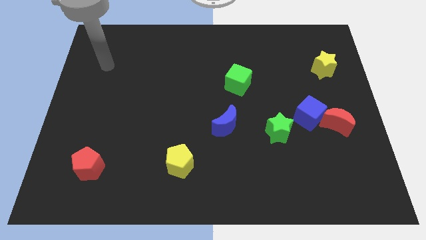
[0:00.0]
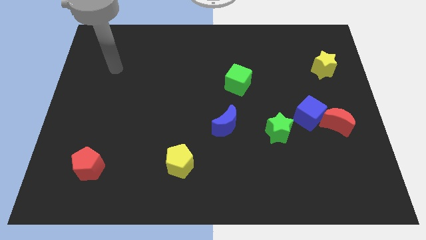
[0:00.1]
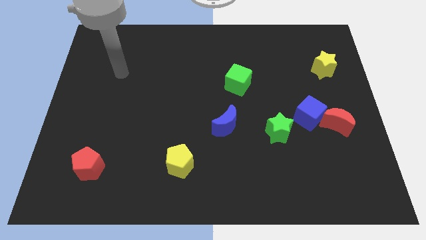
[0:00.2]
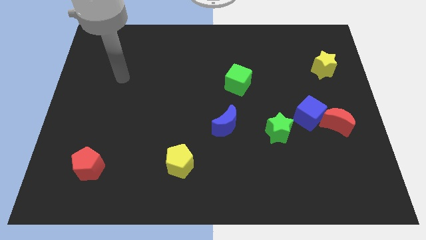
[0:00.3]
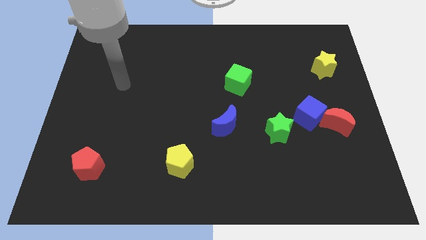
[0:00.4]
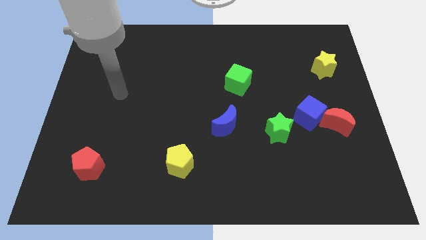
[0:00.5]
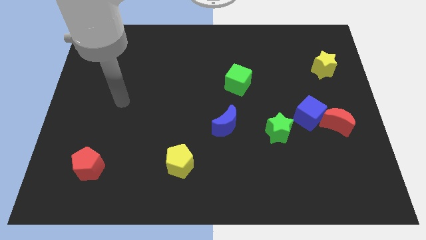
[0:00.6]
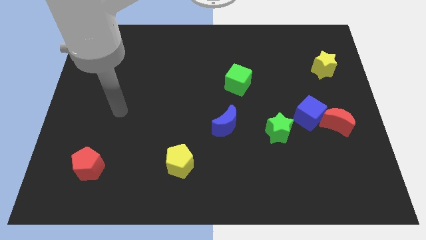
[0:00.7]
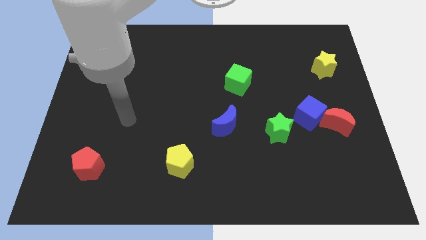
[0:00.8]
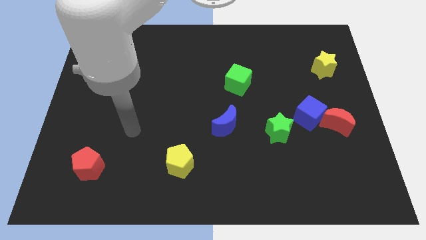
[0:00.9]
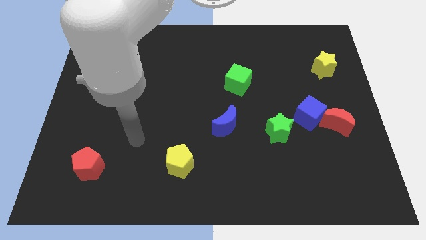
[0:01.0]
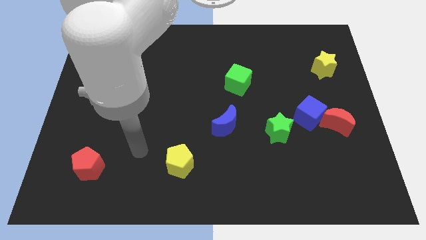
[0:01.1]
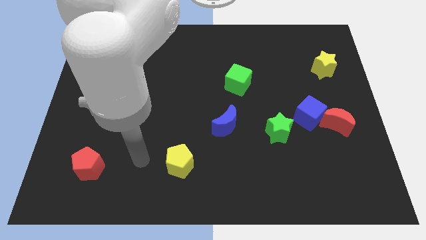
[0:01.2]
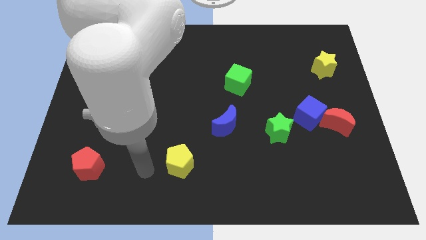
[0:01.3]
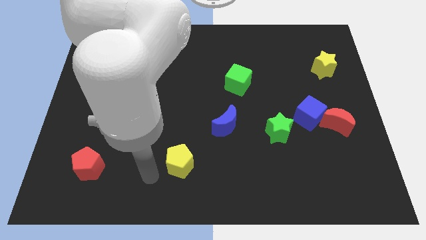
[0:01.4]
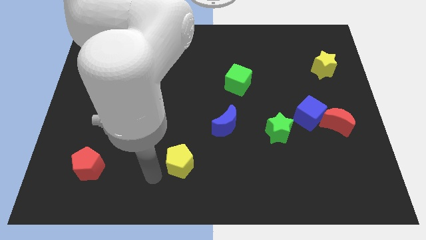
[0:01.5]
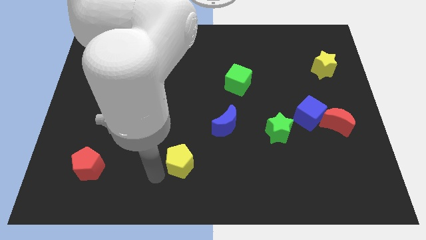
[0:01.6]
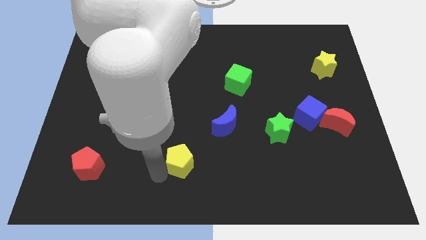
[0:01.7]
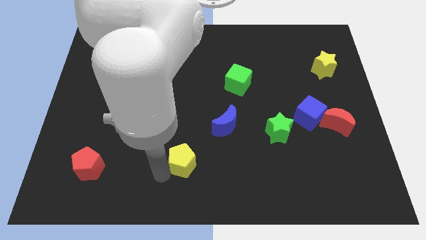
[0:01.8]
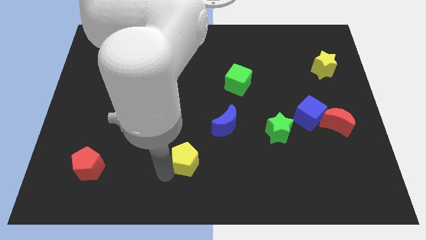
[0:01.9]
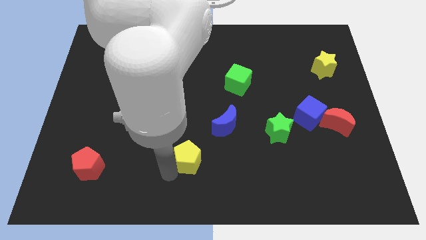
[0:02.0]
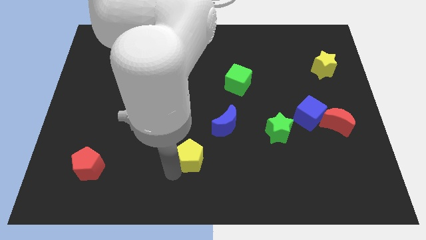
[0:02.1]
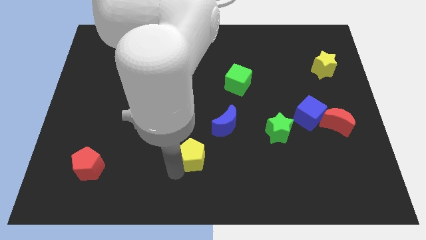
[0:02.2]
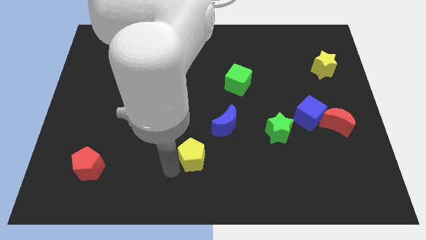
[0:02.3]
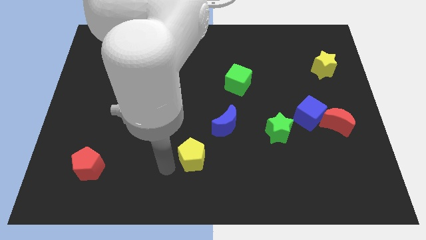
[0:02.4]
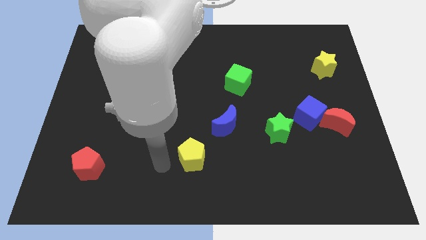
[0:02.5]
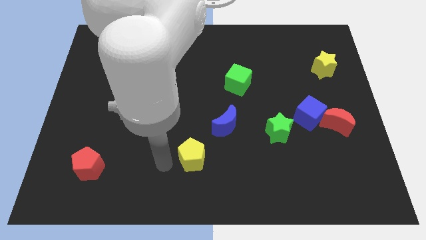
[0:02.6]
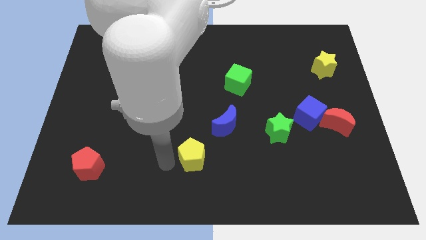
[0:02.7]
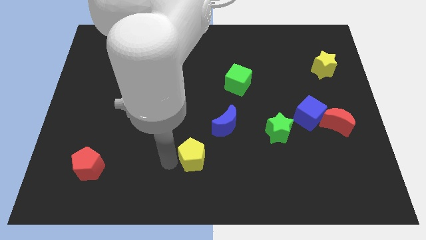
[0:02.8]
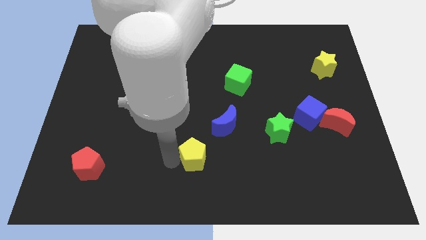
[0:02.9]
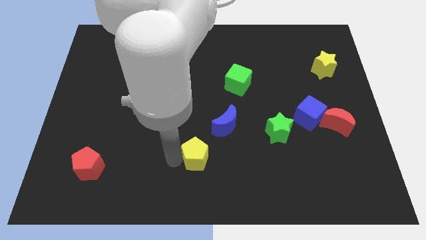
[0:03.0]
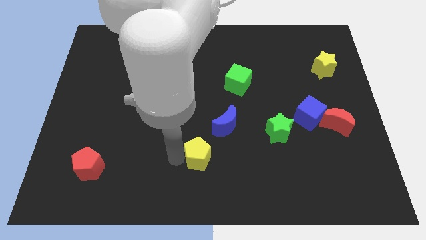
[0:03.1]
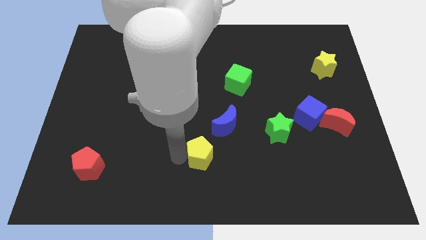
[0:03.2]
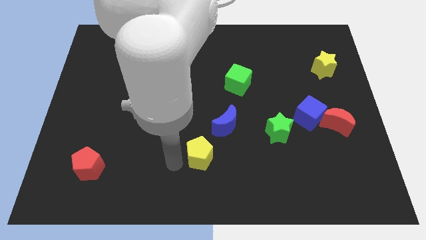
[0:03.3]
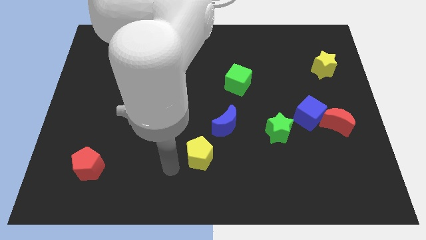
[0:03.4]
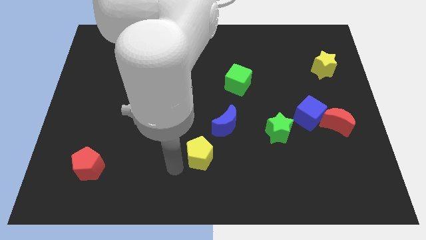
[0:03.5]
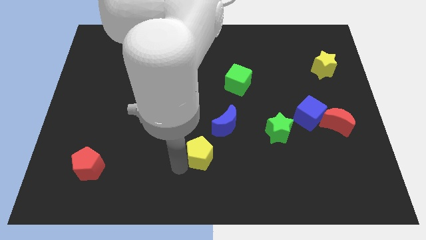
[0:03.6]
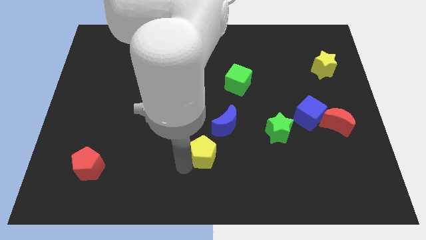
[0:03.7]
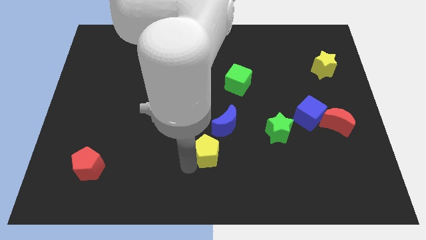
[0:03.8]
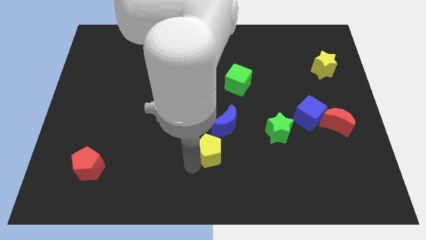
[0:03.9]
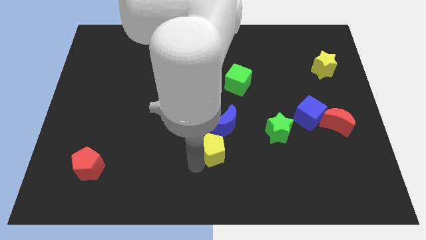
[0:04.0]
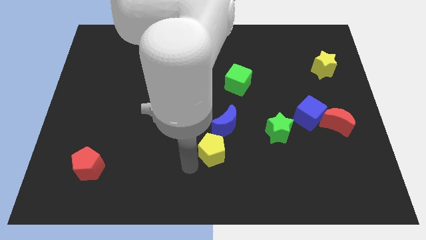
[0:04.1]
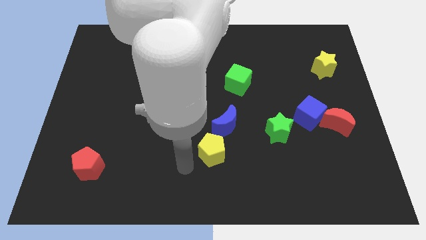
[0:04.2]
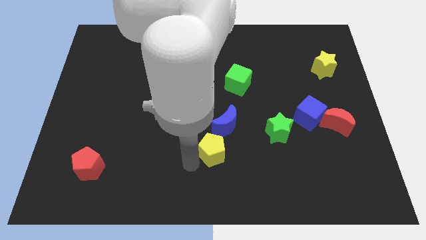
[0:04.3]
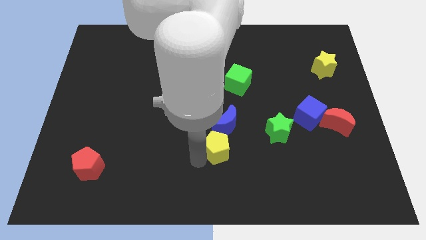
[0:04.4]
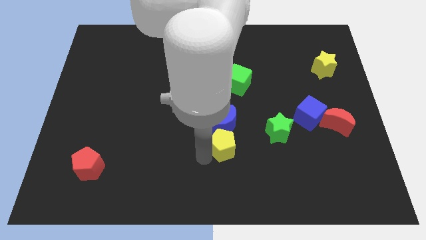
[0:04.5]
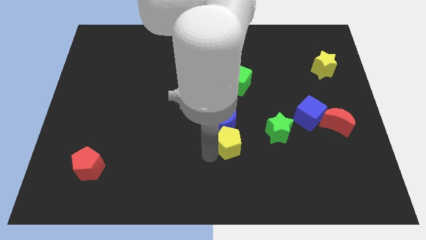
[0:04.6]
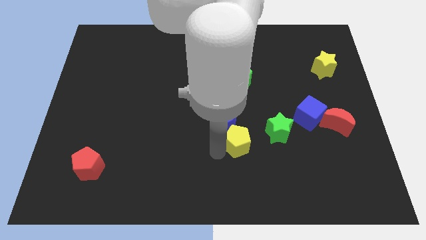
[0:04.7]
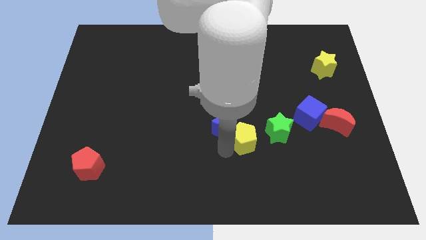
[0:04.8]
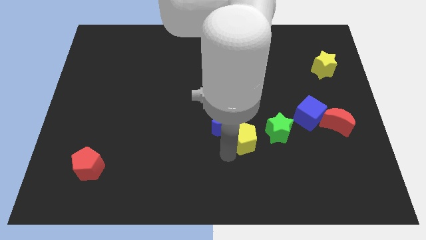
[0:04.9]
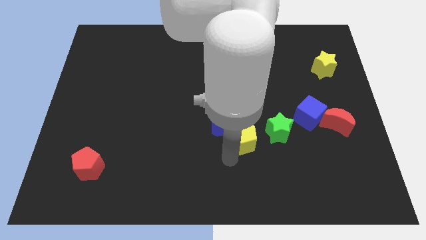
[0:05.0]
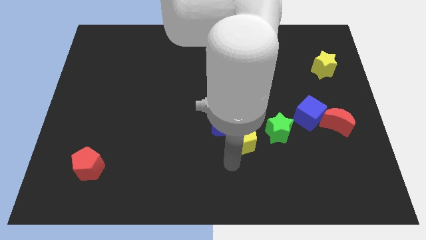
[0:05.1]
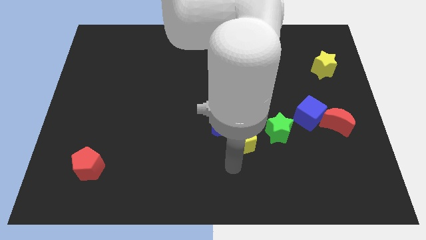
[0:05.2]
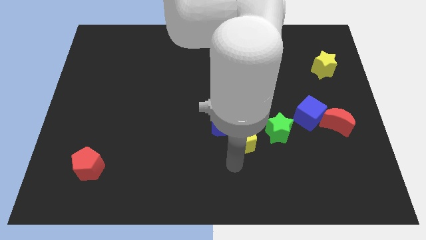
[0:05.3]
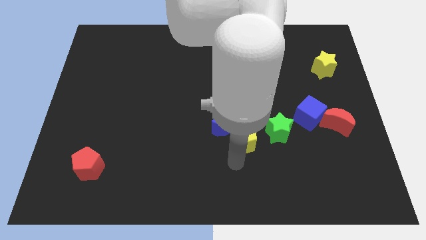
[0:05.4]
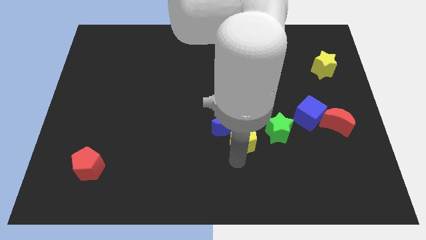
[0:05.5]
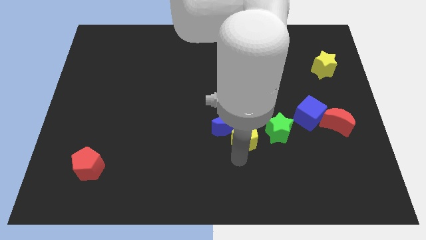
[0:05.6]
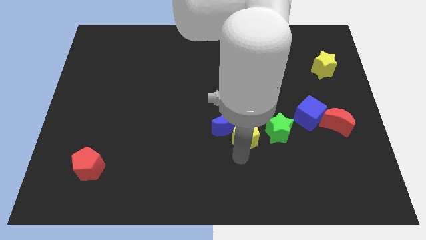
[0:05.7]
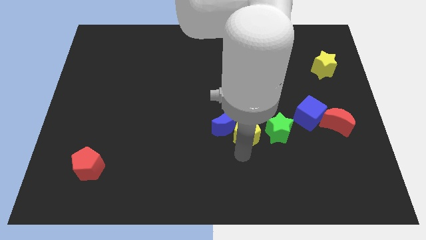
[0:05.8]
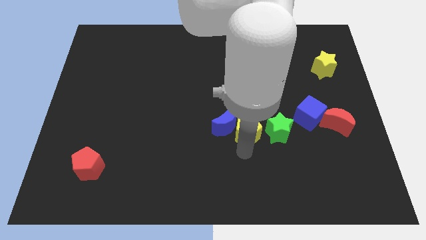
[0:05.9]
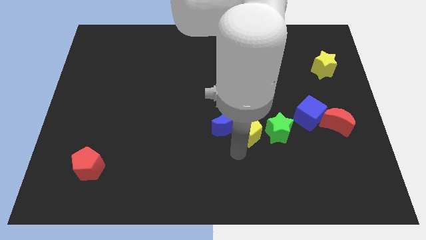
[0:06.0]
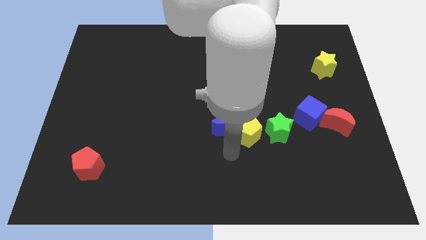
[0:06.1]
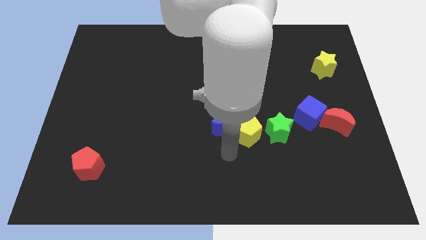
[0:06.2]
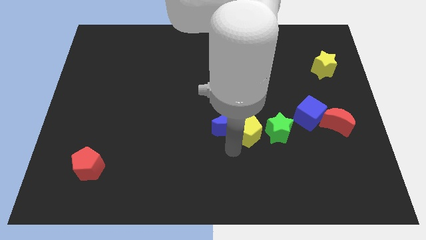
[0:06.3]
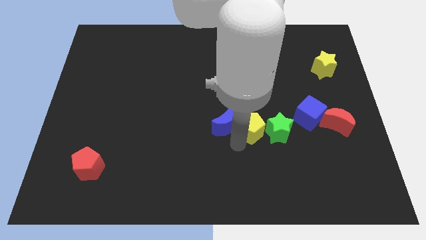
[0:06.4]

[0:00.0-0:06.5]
push the yellow pentagon left of the blue cube

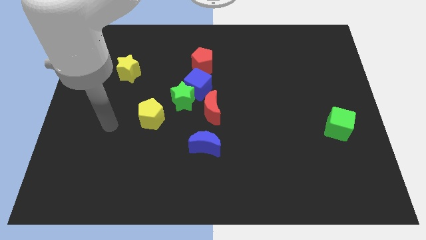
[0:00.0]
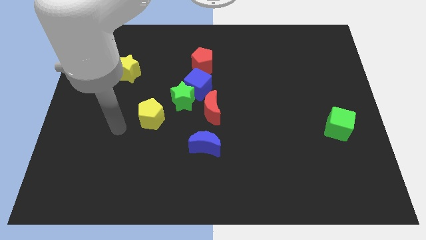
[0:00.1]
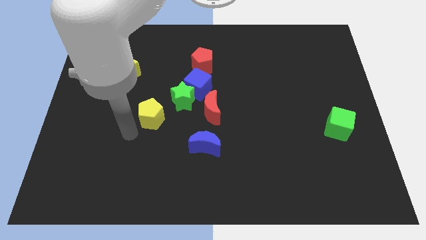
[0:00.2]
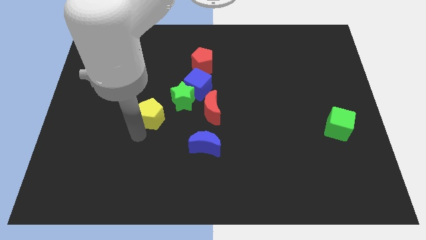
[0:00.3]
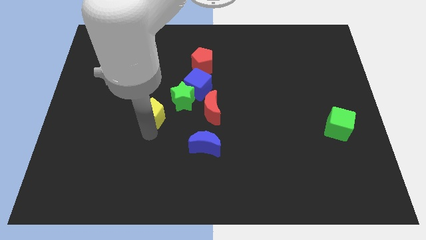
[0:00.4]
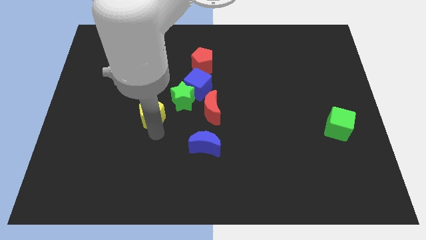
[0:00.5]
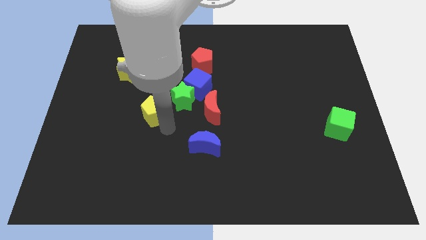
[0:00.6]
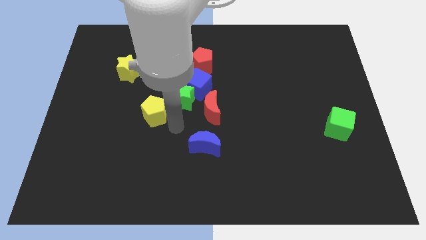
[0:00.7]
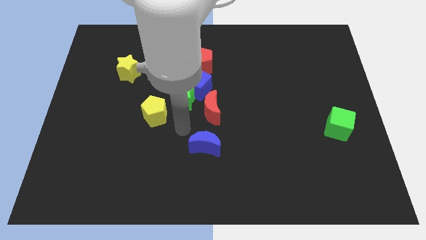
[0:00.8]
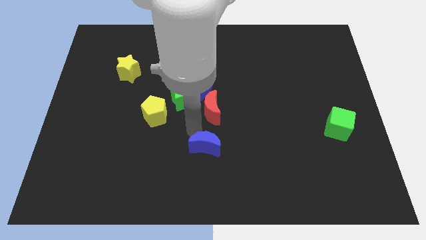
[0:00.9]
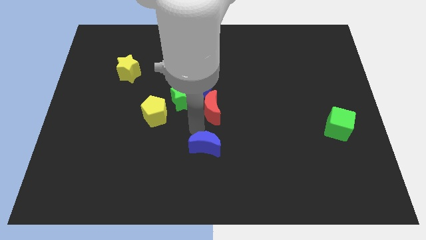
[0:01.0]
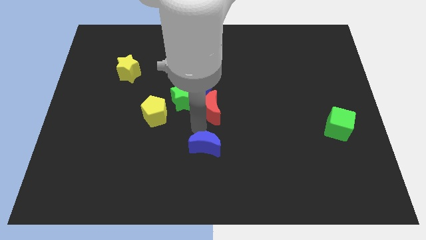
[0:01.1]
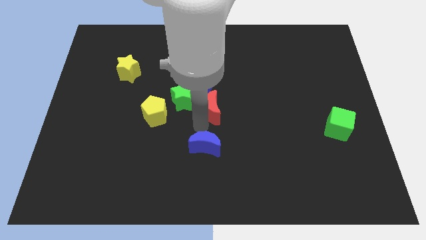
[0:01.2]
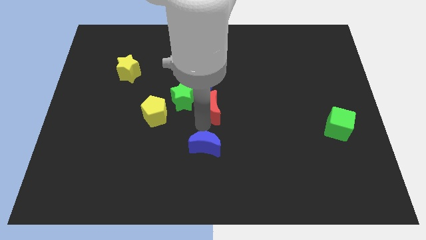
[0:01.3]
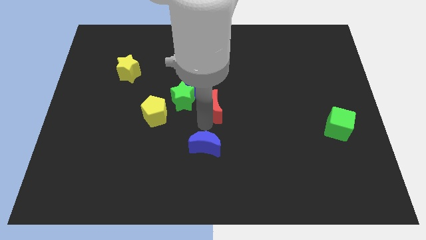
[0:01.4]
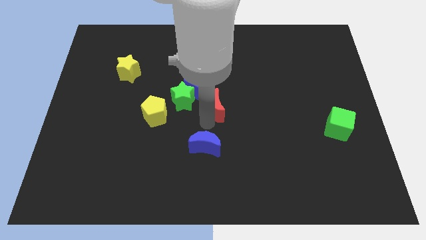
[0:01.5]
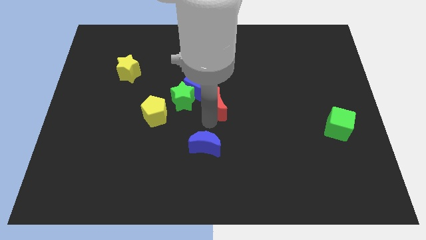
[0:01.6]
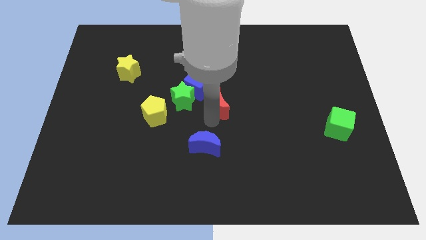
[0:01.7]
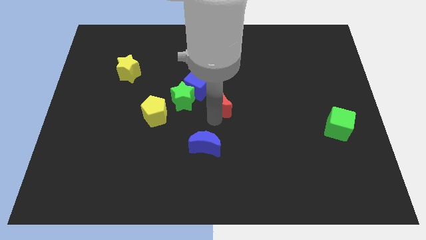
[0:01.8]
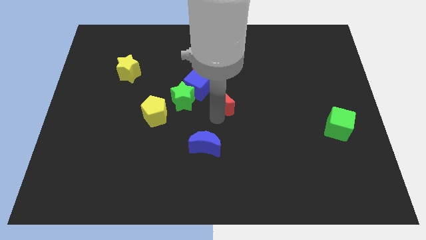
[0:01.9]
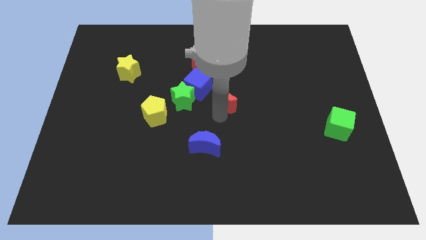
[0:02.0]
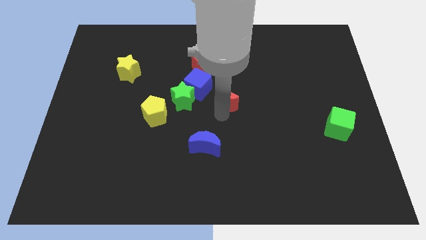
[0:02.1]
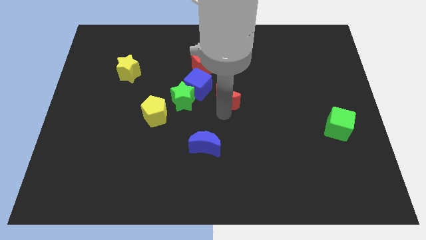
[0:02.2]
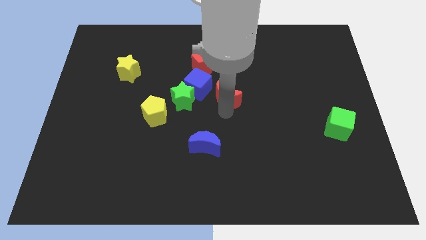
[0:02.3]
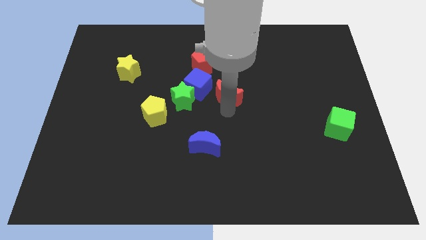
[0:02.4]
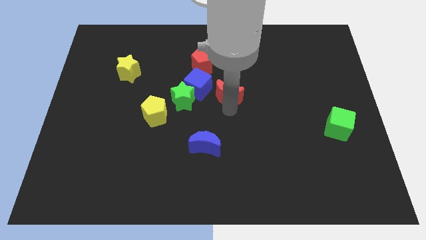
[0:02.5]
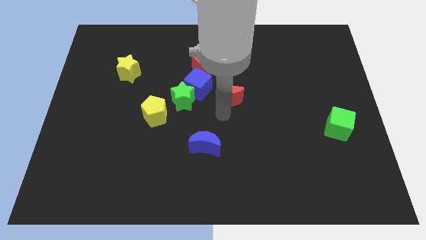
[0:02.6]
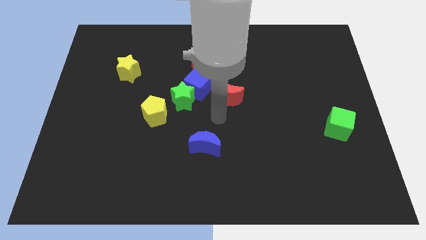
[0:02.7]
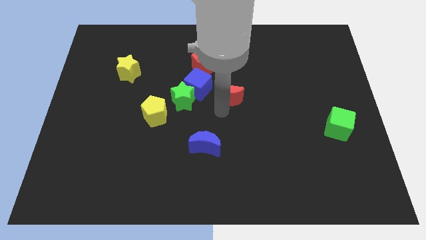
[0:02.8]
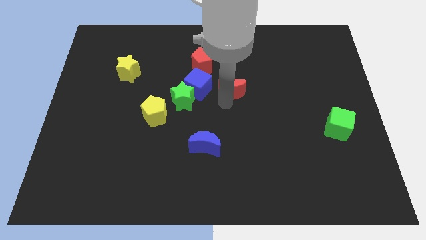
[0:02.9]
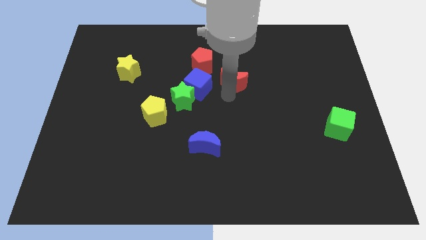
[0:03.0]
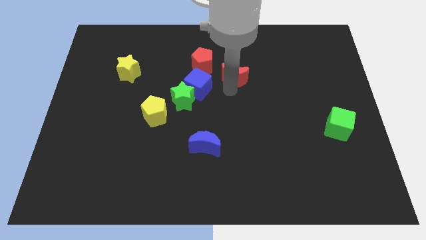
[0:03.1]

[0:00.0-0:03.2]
push the red moon to the right side of the red pentagon
